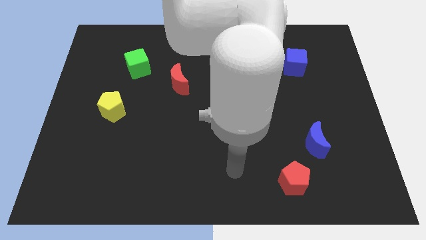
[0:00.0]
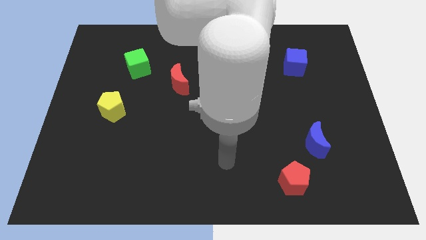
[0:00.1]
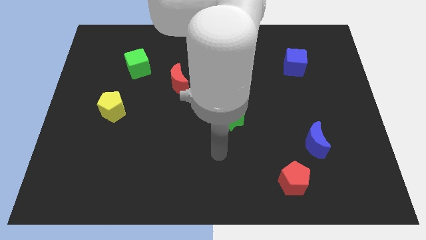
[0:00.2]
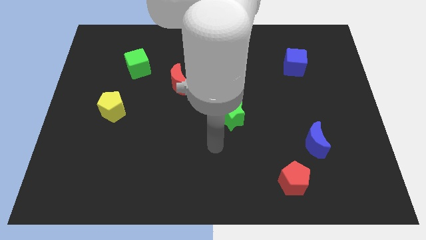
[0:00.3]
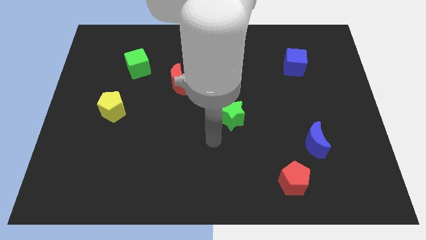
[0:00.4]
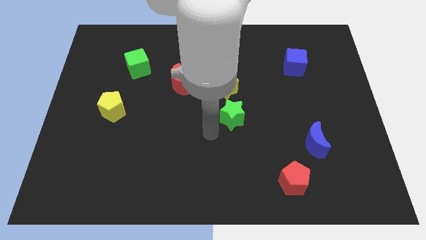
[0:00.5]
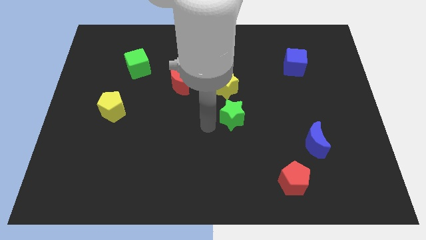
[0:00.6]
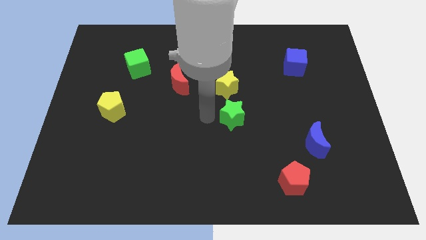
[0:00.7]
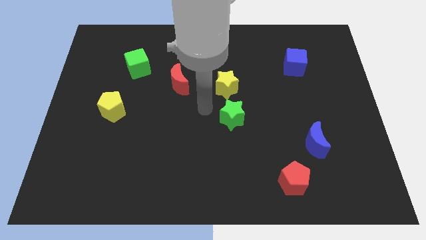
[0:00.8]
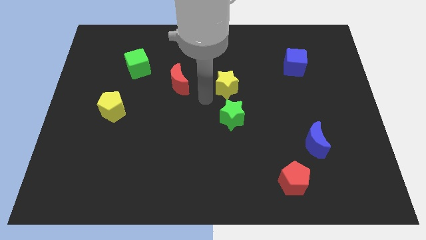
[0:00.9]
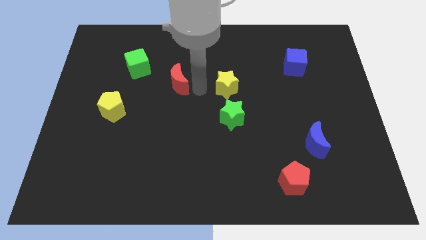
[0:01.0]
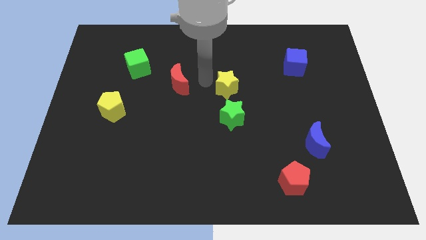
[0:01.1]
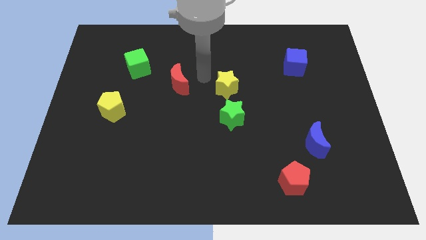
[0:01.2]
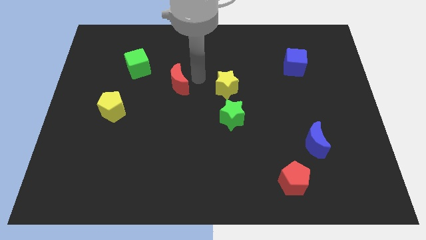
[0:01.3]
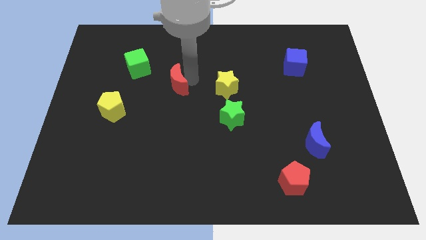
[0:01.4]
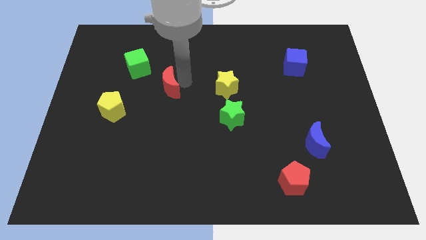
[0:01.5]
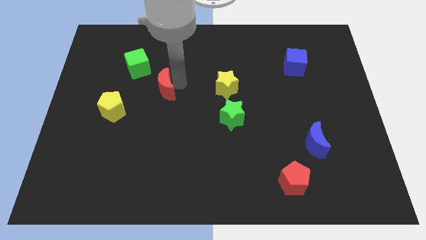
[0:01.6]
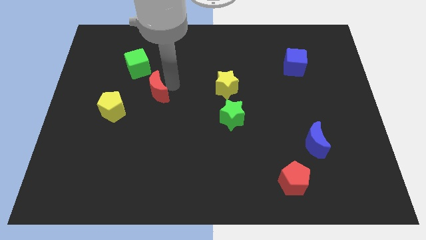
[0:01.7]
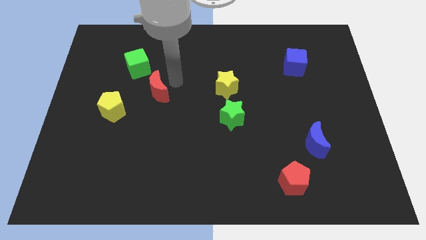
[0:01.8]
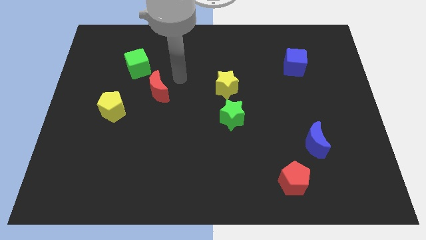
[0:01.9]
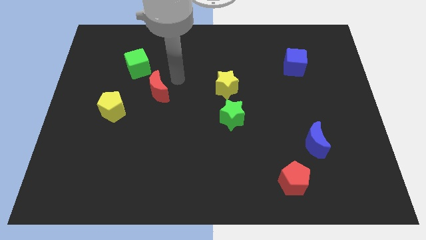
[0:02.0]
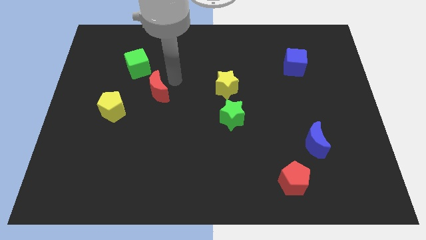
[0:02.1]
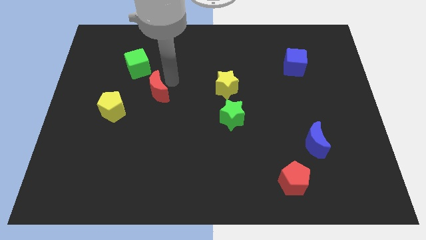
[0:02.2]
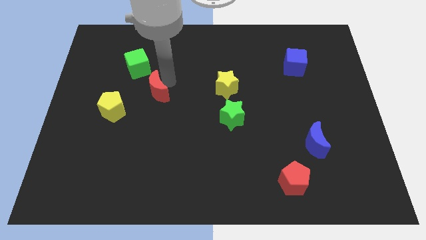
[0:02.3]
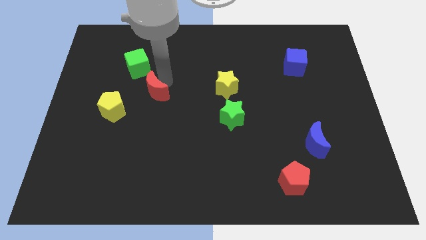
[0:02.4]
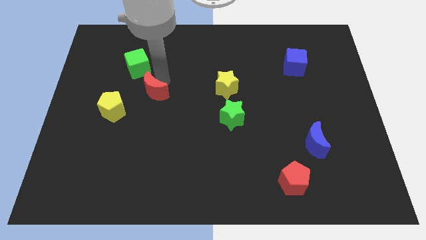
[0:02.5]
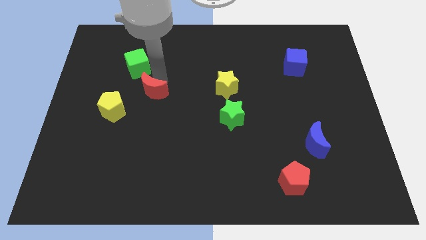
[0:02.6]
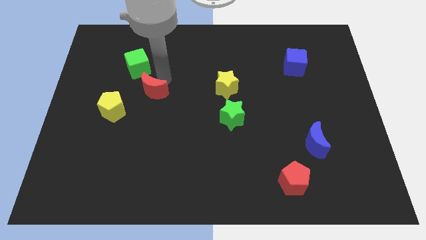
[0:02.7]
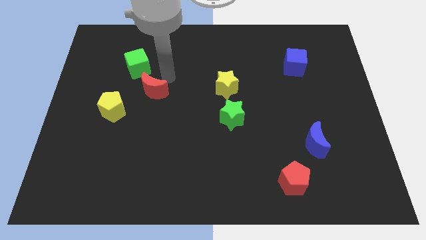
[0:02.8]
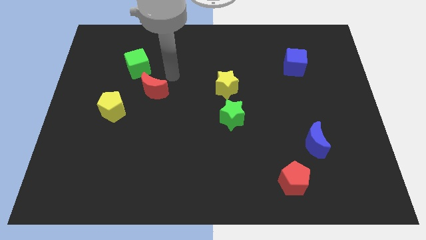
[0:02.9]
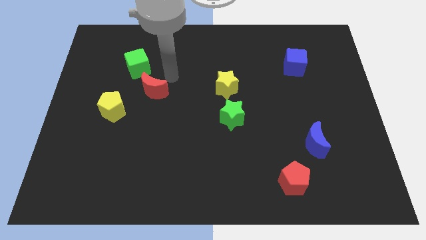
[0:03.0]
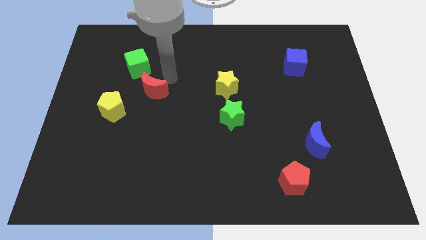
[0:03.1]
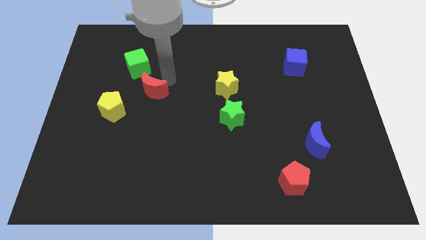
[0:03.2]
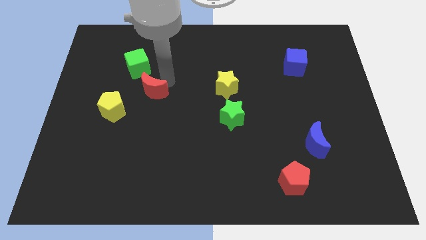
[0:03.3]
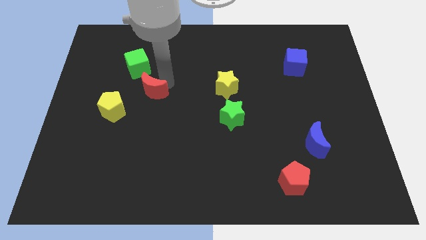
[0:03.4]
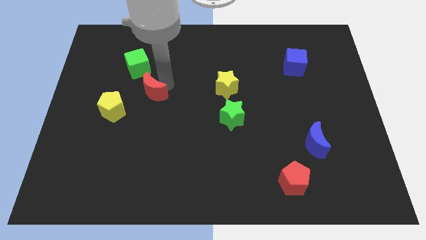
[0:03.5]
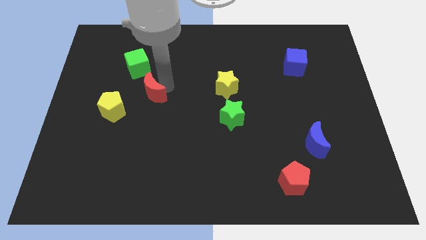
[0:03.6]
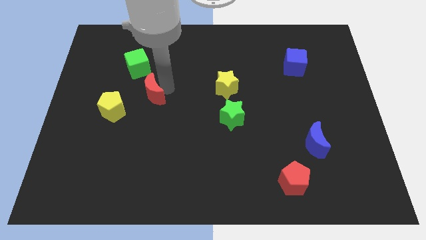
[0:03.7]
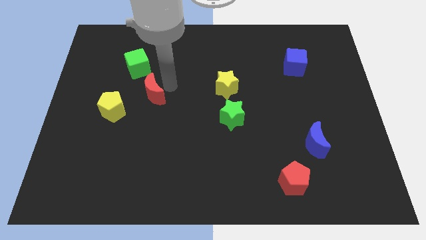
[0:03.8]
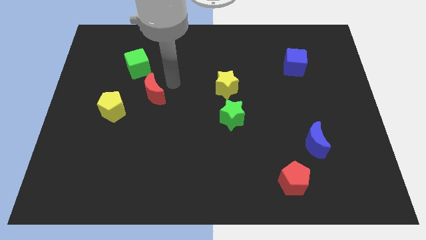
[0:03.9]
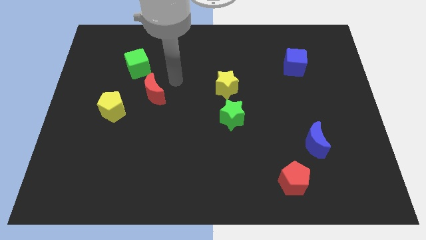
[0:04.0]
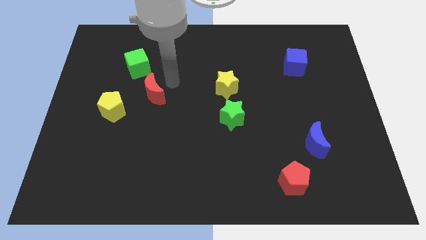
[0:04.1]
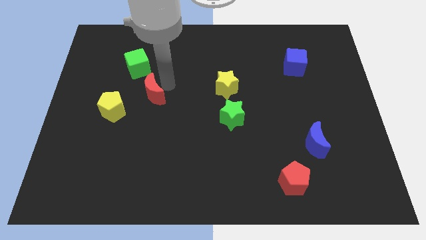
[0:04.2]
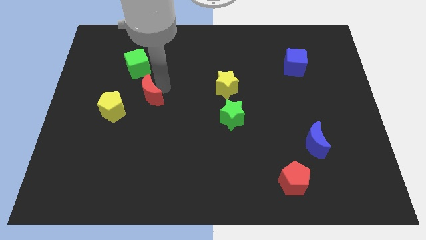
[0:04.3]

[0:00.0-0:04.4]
push the red moon down and to the left a little

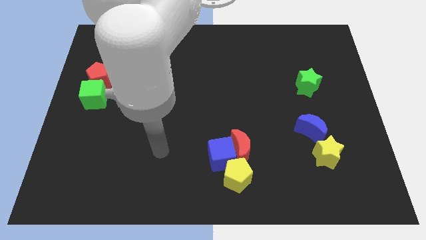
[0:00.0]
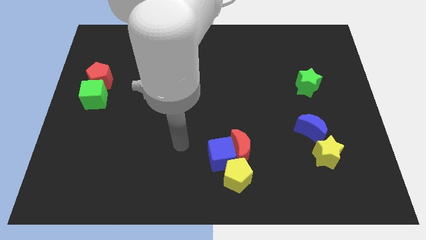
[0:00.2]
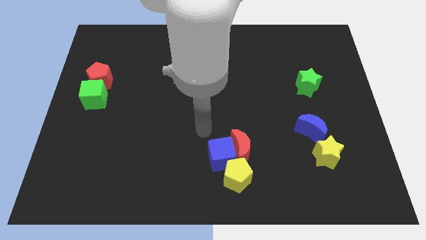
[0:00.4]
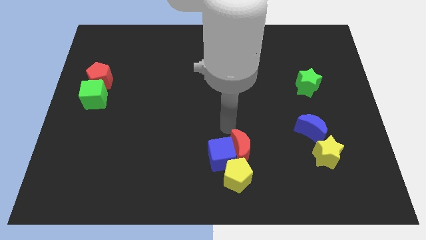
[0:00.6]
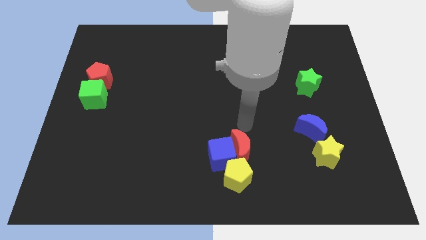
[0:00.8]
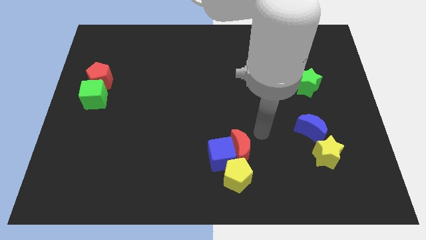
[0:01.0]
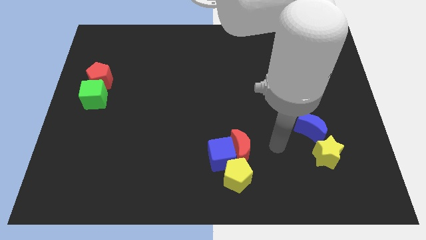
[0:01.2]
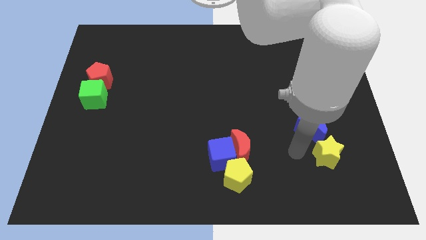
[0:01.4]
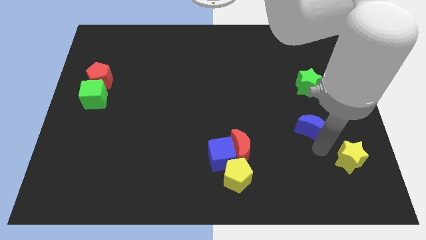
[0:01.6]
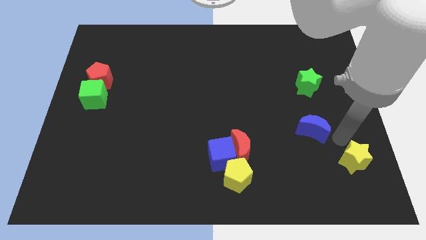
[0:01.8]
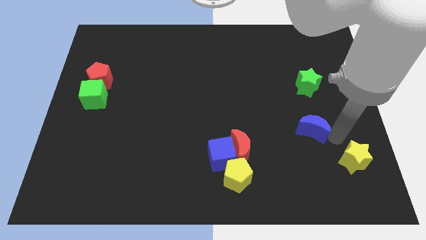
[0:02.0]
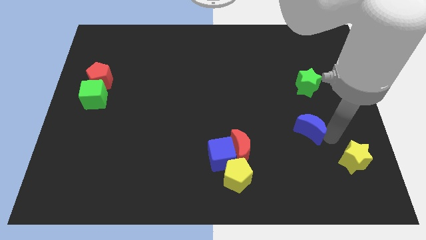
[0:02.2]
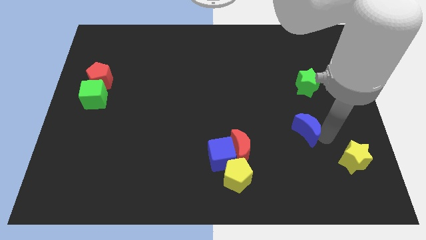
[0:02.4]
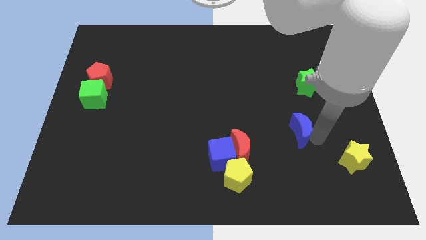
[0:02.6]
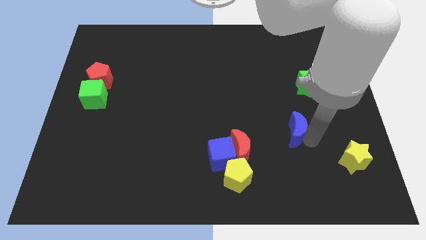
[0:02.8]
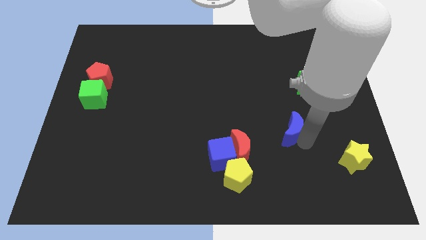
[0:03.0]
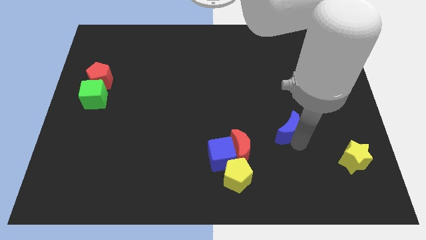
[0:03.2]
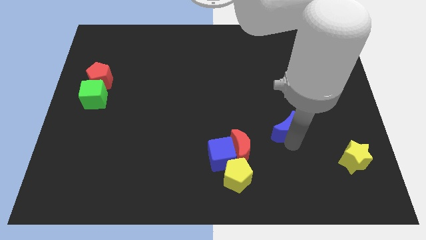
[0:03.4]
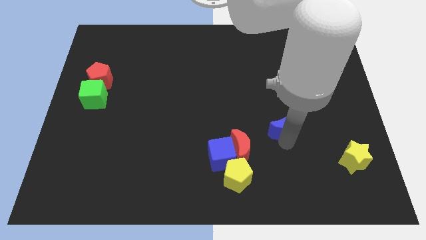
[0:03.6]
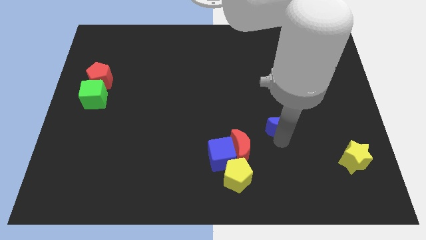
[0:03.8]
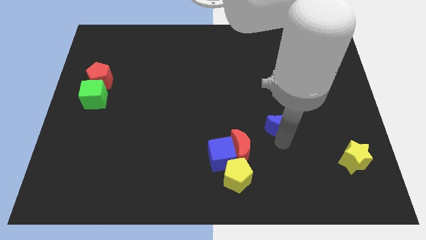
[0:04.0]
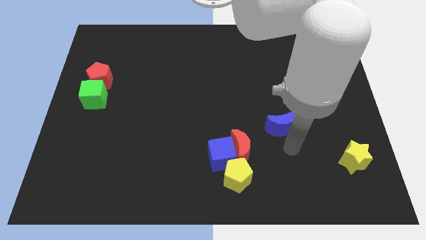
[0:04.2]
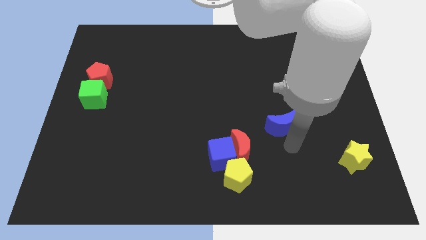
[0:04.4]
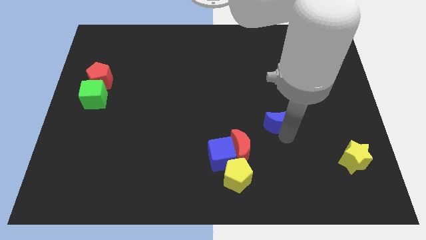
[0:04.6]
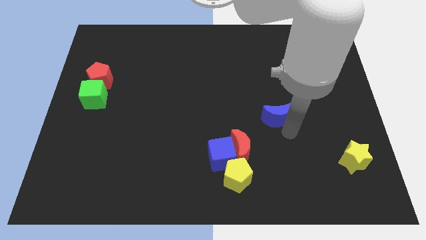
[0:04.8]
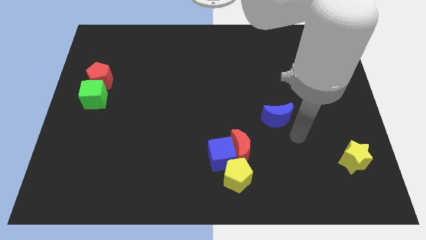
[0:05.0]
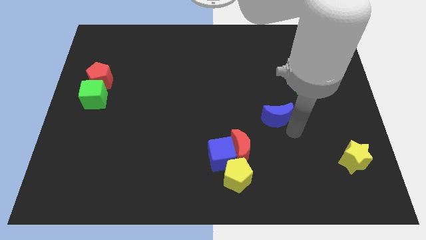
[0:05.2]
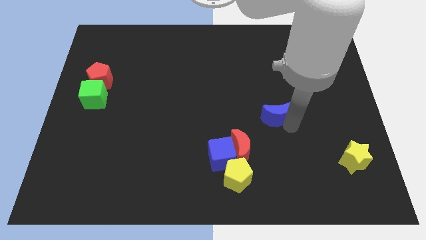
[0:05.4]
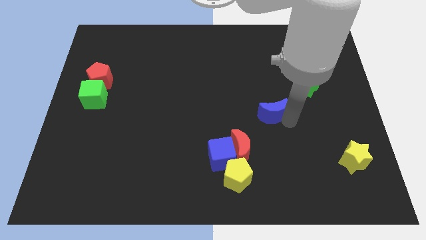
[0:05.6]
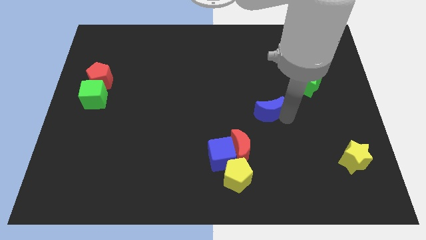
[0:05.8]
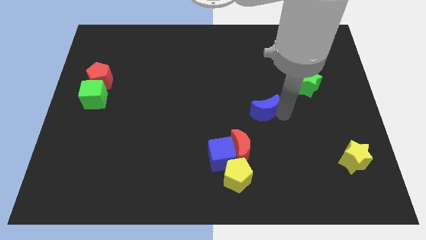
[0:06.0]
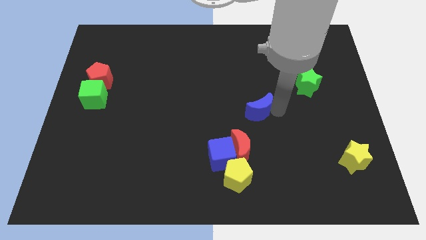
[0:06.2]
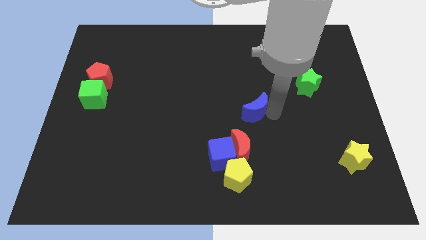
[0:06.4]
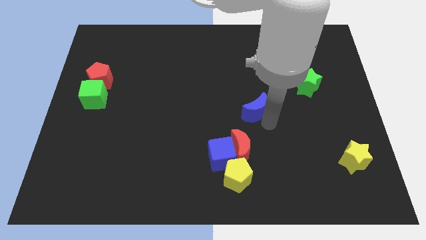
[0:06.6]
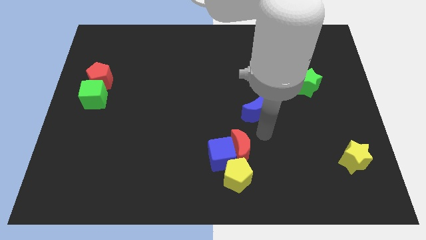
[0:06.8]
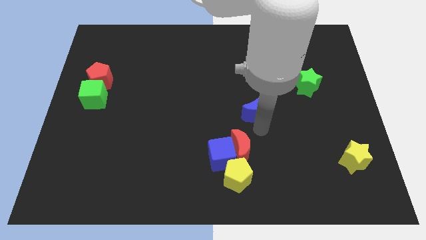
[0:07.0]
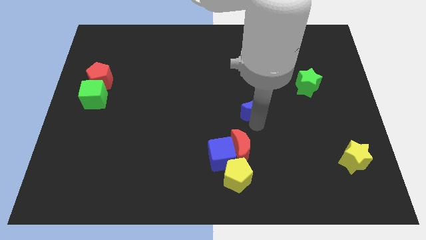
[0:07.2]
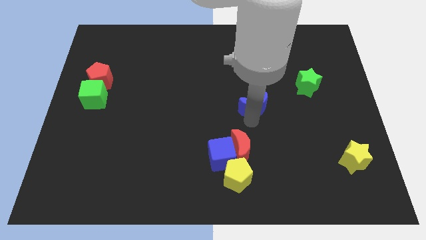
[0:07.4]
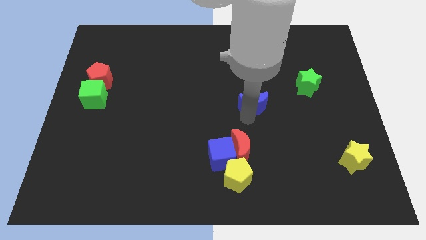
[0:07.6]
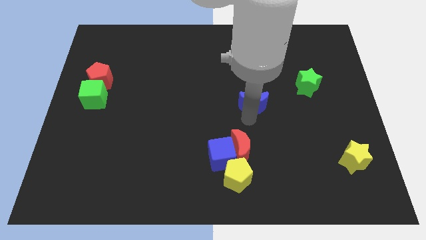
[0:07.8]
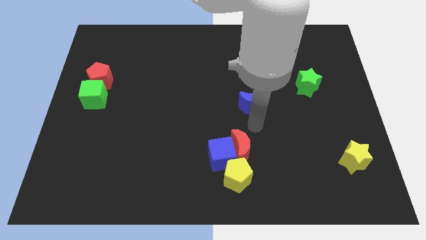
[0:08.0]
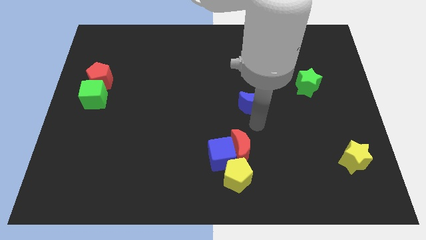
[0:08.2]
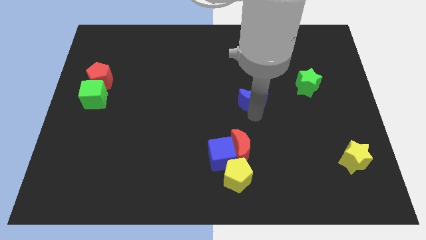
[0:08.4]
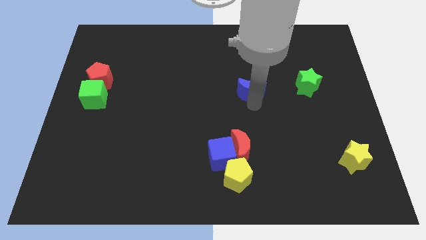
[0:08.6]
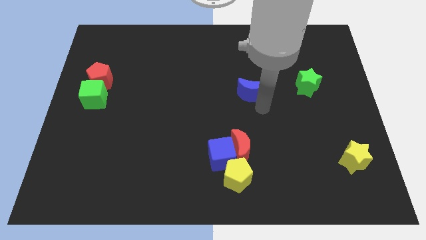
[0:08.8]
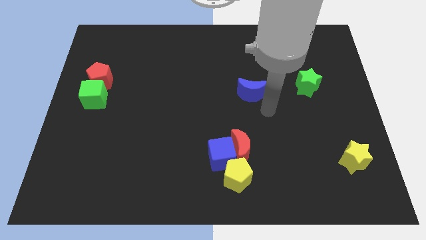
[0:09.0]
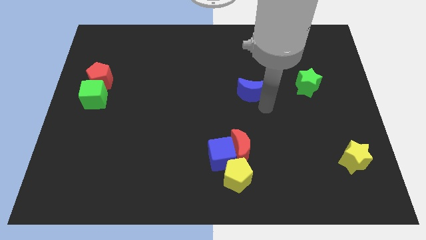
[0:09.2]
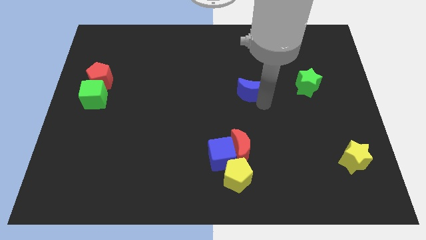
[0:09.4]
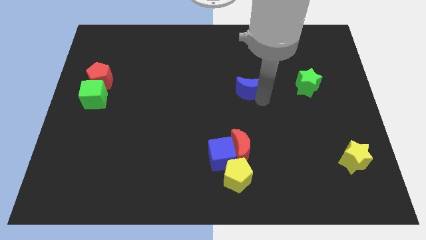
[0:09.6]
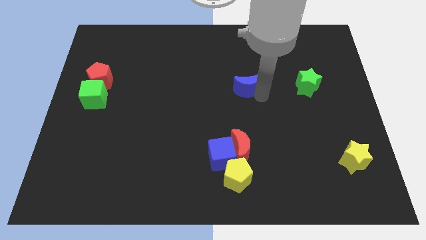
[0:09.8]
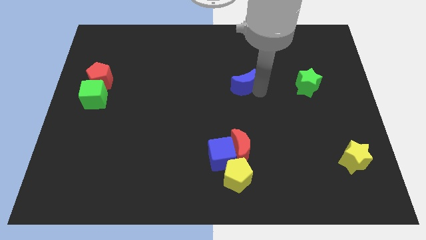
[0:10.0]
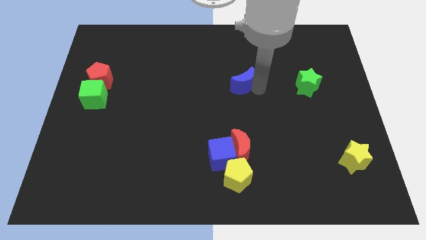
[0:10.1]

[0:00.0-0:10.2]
move the blue moon up and to the left diagonally
